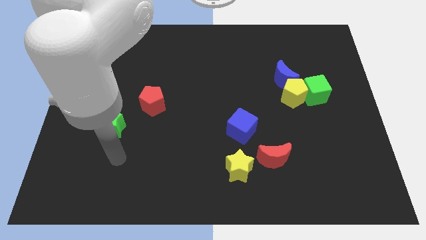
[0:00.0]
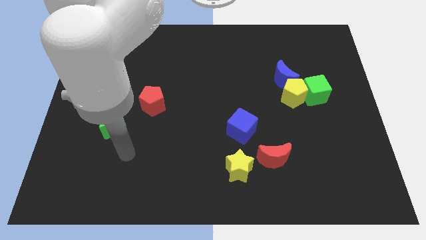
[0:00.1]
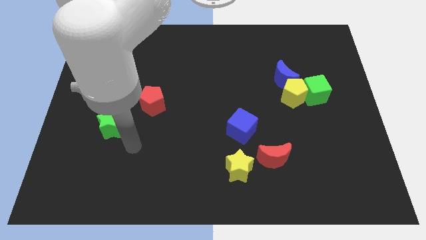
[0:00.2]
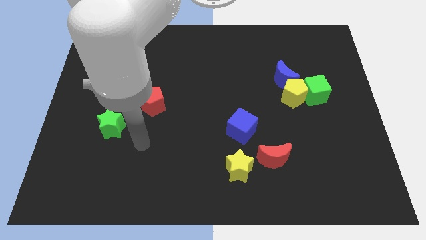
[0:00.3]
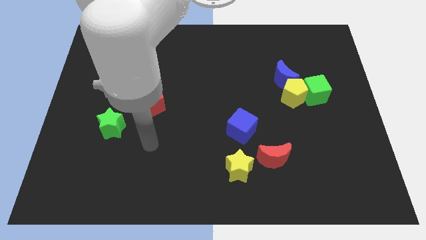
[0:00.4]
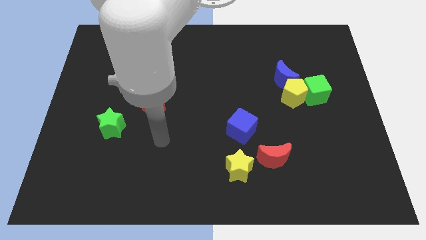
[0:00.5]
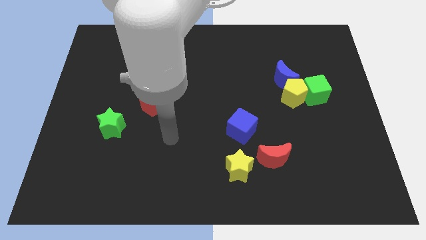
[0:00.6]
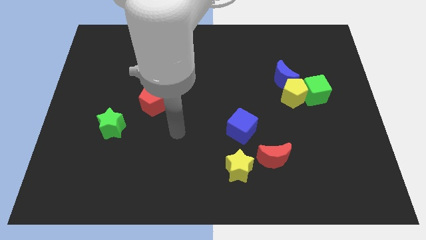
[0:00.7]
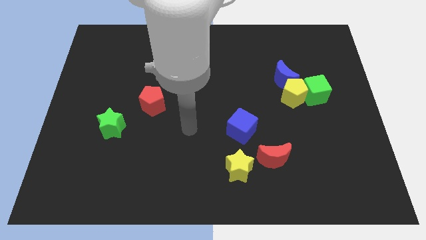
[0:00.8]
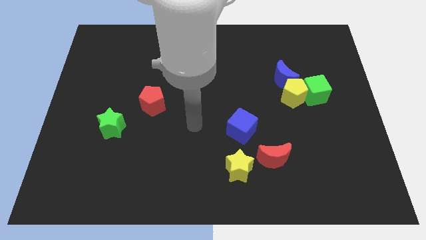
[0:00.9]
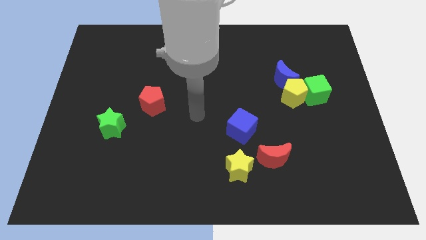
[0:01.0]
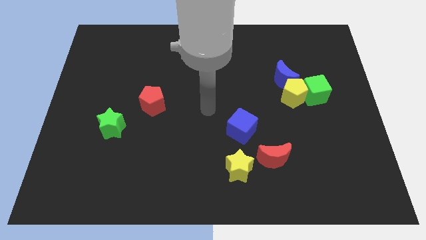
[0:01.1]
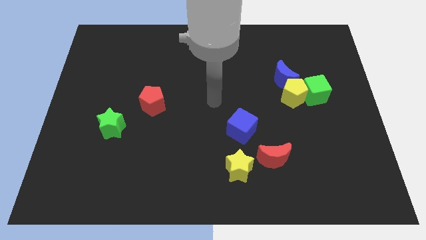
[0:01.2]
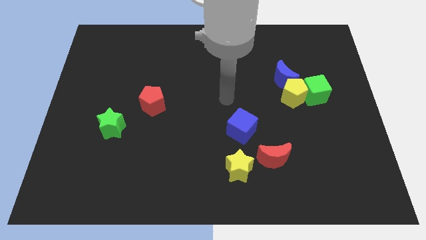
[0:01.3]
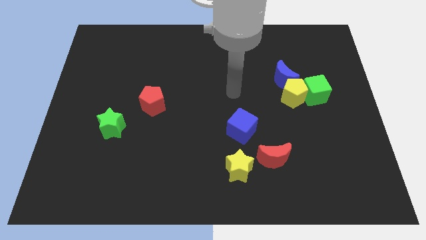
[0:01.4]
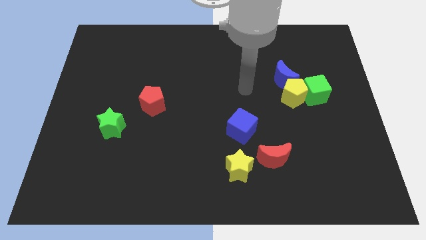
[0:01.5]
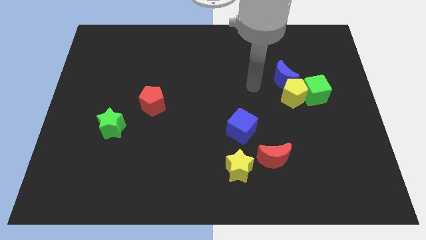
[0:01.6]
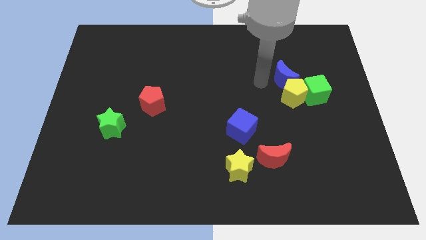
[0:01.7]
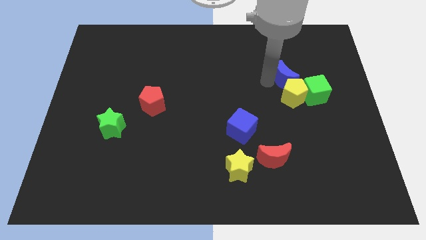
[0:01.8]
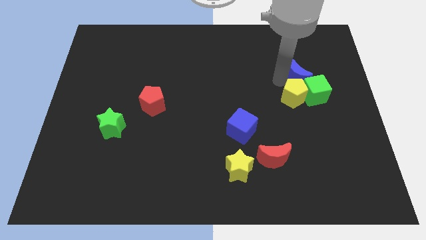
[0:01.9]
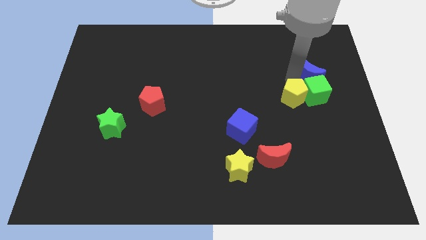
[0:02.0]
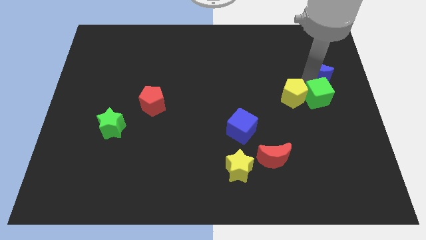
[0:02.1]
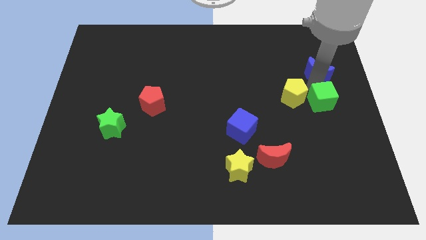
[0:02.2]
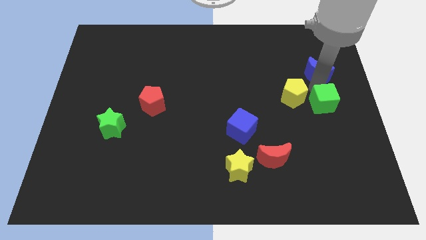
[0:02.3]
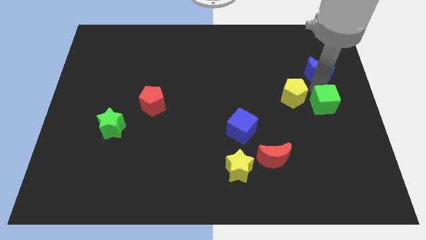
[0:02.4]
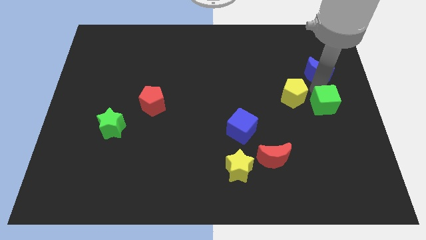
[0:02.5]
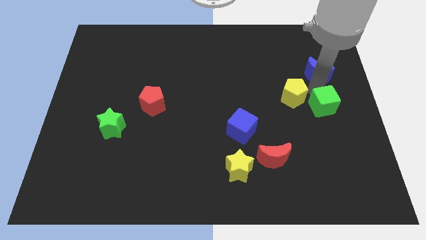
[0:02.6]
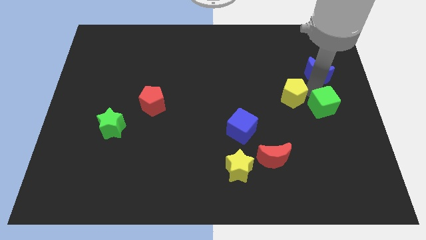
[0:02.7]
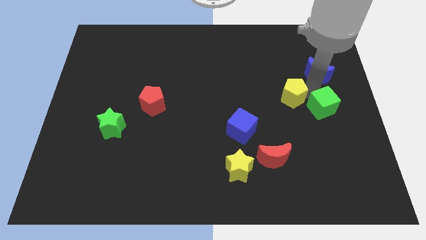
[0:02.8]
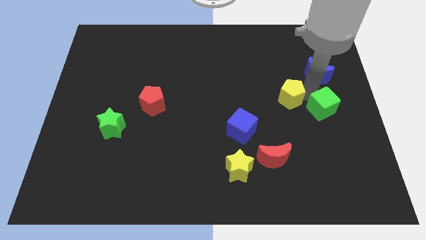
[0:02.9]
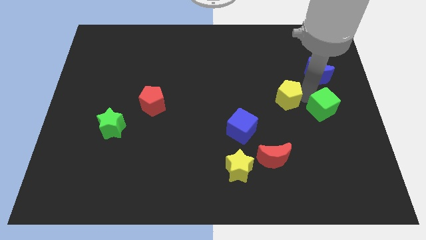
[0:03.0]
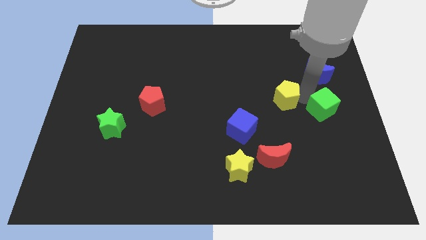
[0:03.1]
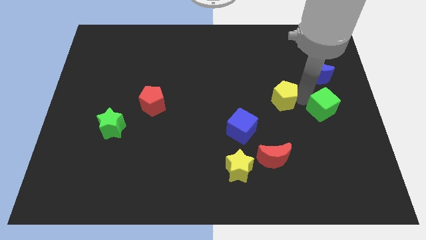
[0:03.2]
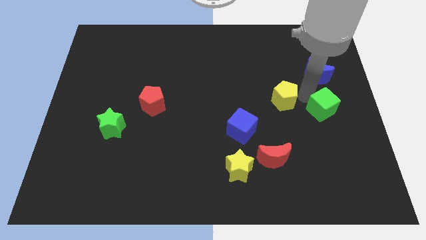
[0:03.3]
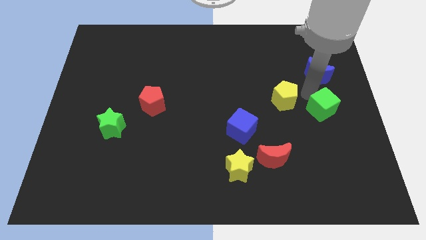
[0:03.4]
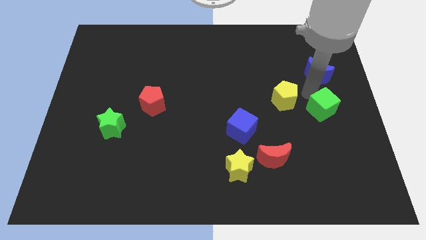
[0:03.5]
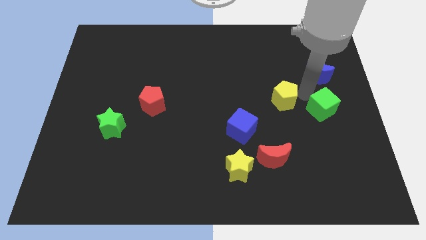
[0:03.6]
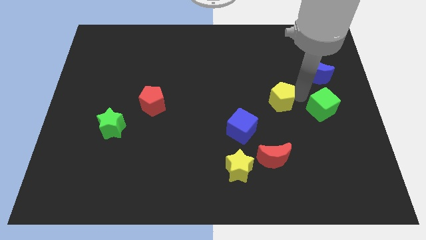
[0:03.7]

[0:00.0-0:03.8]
separate the yellow pentagon from the green cube and blue moon

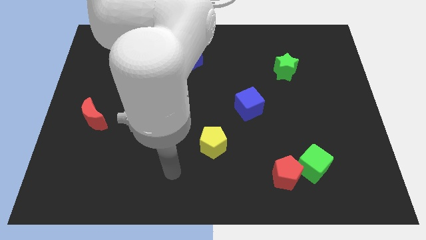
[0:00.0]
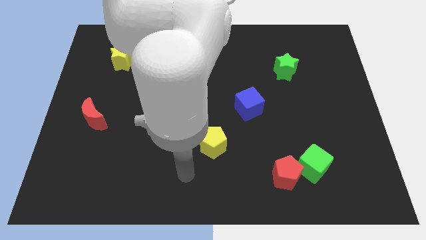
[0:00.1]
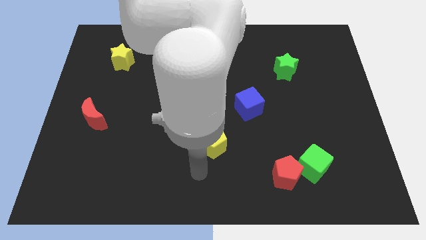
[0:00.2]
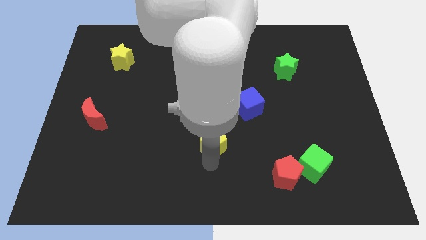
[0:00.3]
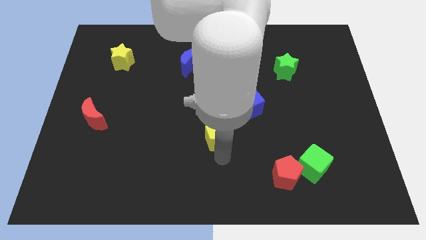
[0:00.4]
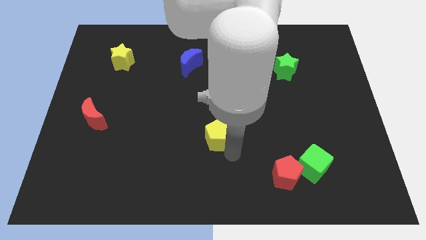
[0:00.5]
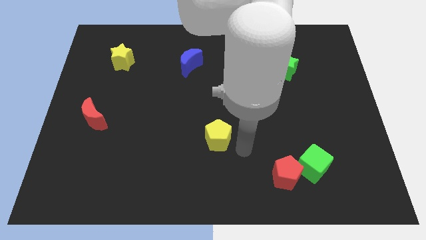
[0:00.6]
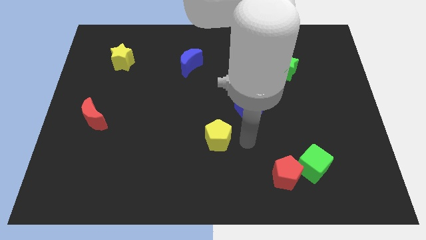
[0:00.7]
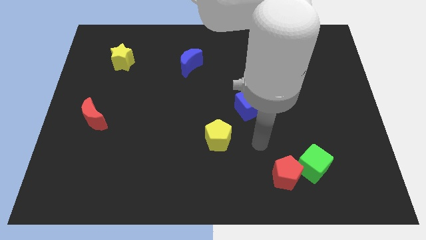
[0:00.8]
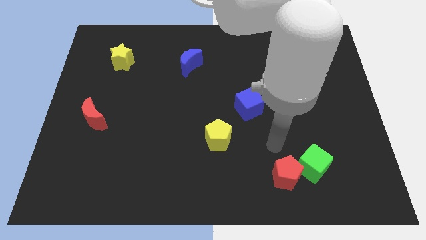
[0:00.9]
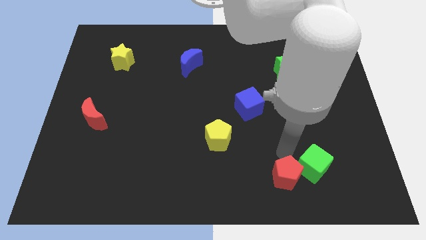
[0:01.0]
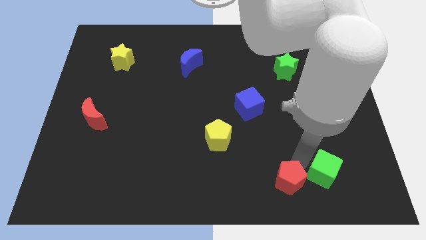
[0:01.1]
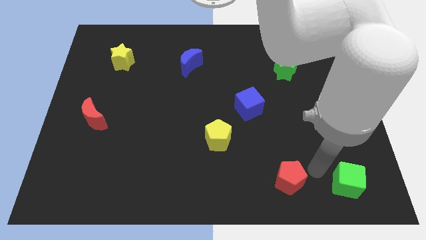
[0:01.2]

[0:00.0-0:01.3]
move the red pentagon away from the green cube

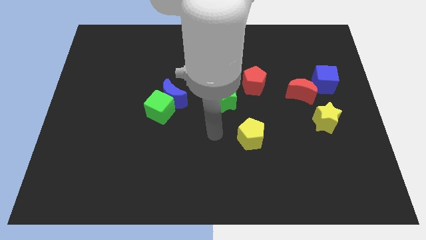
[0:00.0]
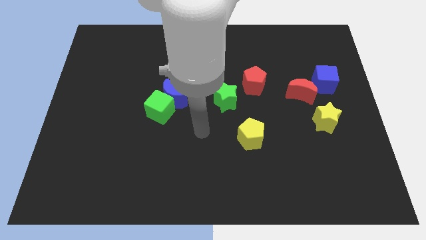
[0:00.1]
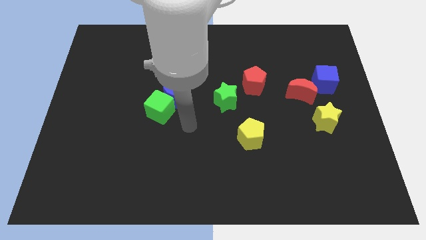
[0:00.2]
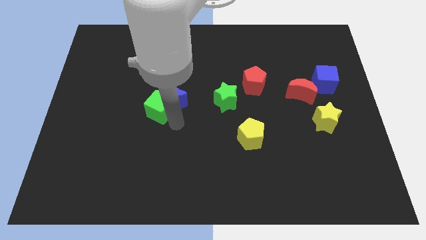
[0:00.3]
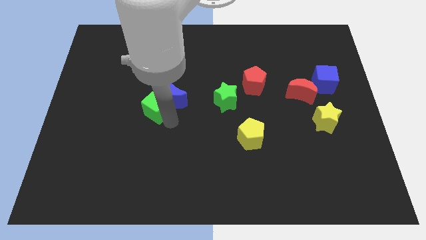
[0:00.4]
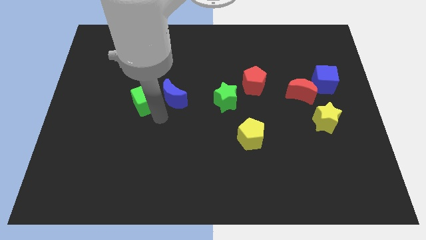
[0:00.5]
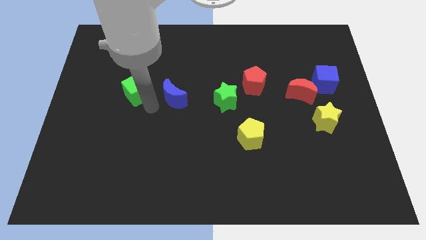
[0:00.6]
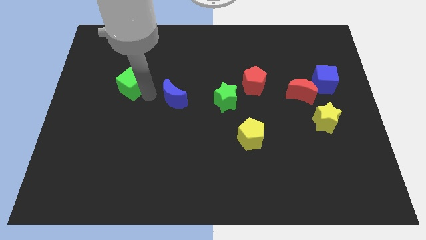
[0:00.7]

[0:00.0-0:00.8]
separate the blue moon from the green cube

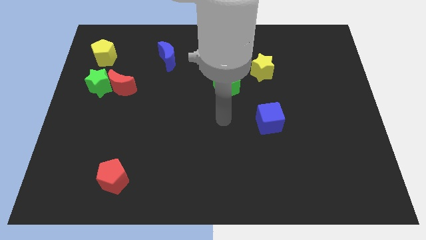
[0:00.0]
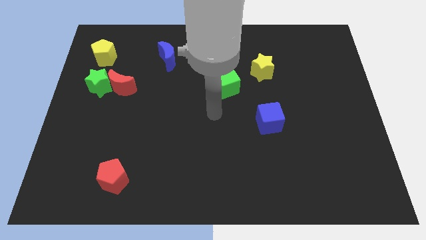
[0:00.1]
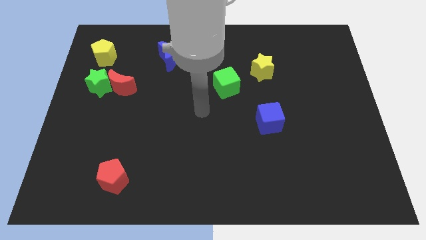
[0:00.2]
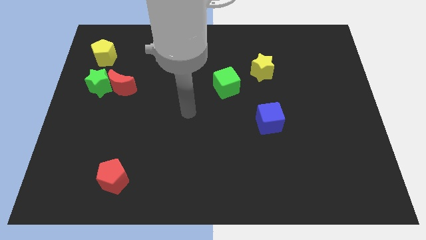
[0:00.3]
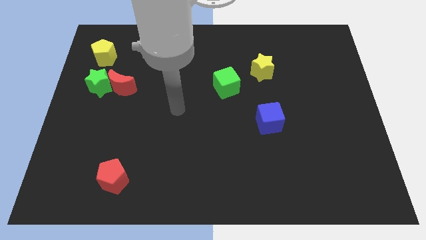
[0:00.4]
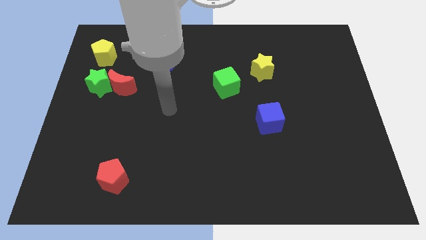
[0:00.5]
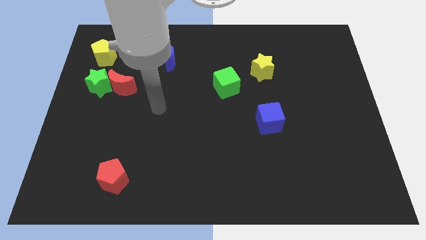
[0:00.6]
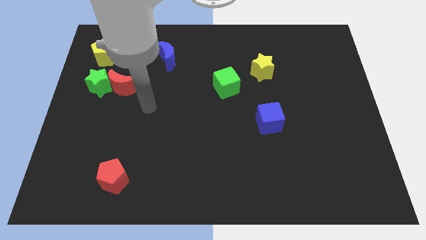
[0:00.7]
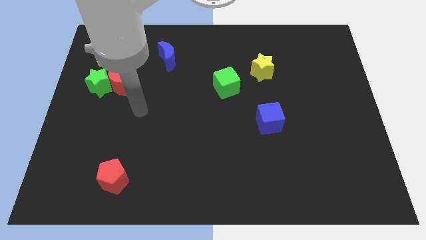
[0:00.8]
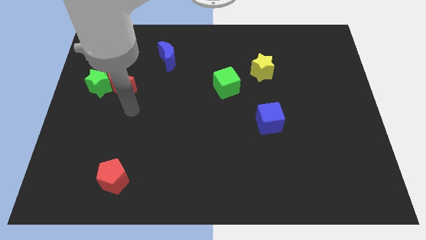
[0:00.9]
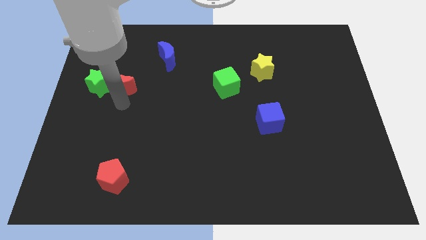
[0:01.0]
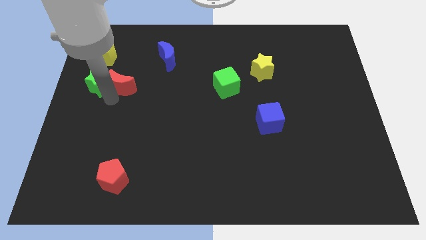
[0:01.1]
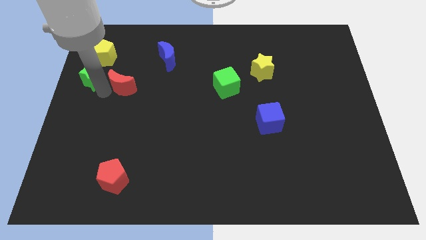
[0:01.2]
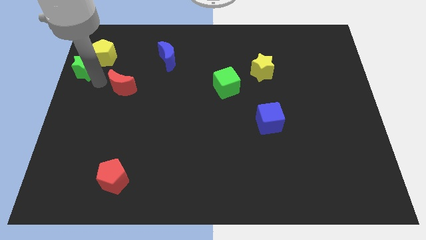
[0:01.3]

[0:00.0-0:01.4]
pull the red moon apart from the green star

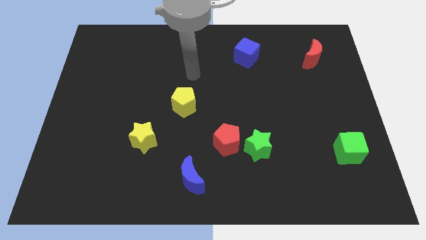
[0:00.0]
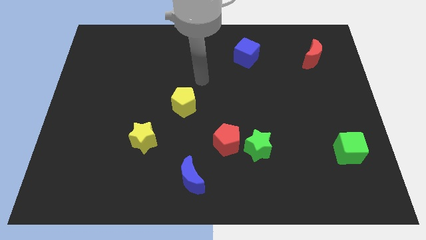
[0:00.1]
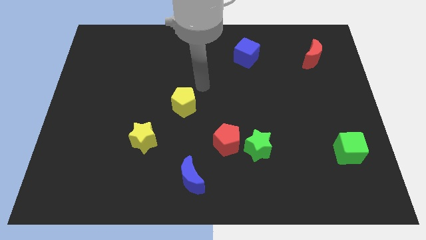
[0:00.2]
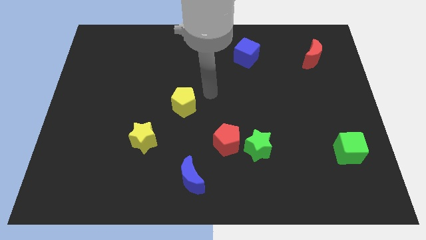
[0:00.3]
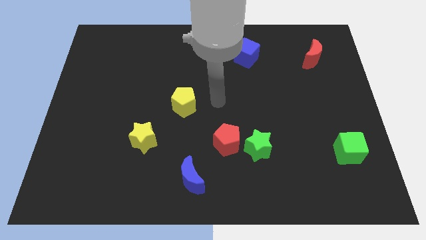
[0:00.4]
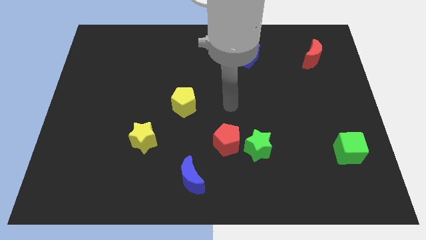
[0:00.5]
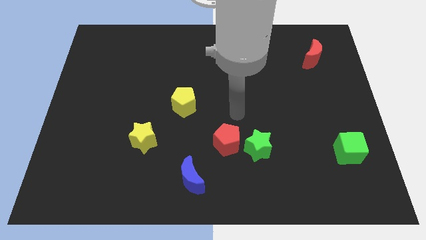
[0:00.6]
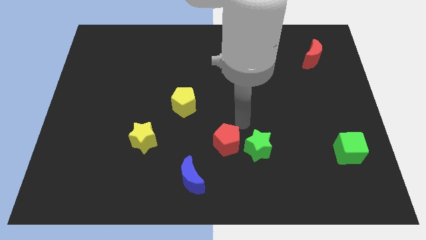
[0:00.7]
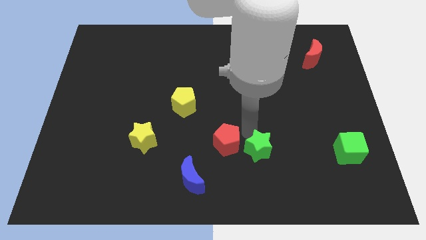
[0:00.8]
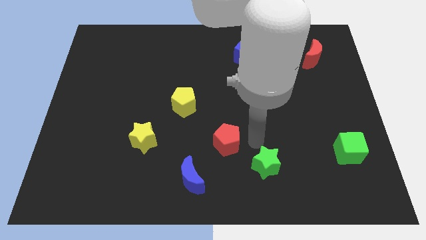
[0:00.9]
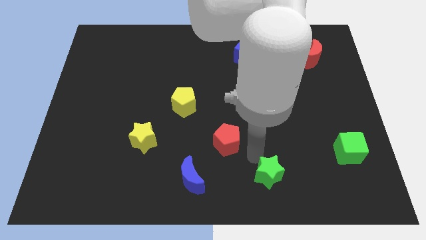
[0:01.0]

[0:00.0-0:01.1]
move the red pentagon away from the green star

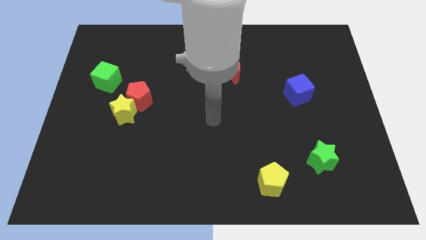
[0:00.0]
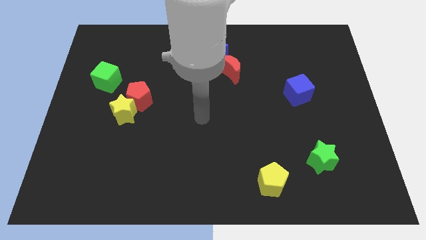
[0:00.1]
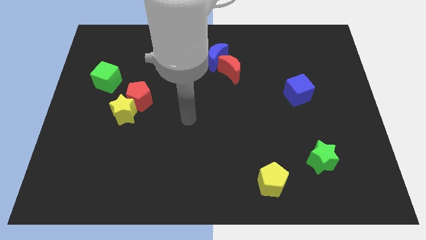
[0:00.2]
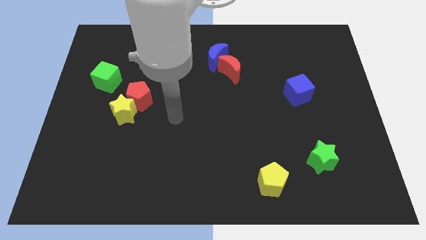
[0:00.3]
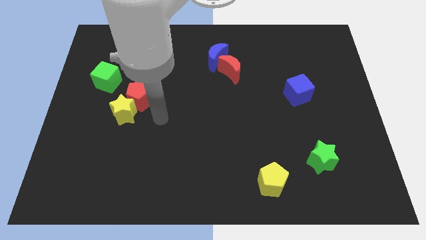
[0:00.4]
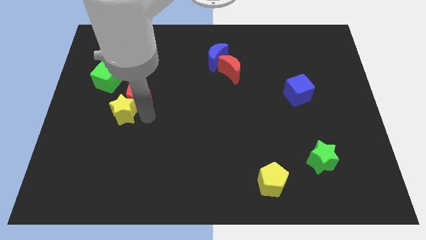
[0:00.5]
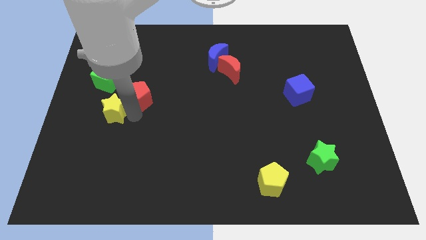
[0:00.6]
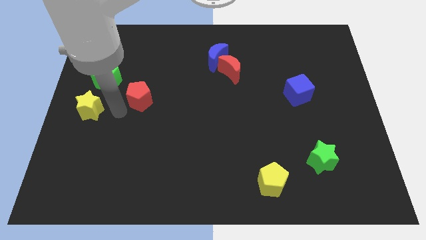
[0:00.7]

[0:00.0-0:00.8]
separate the red pentagon from the yellow star

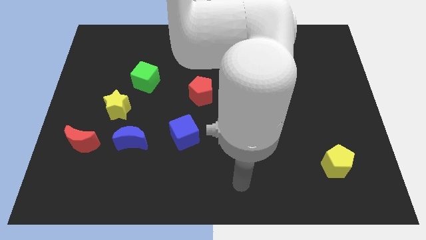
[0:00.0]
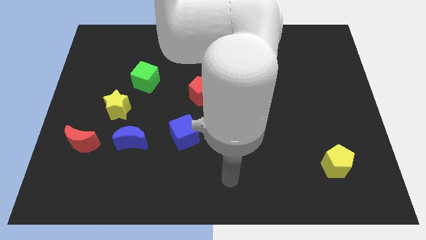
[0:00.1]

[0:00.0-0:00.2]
move the blue moon away from the yellow star

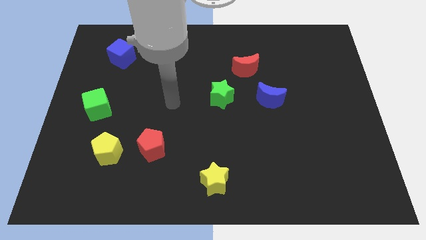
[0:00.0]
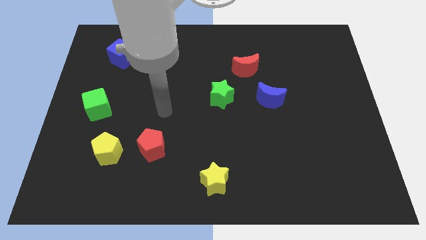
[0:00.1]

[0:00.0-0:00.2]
separate the red pentagon from the yellow pentagon
